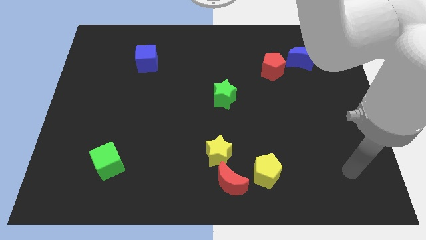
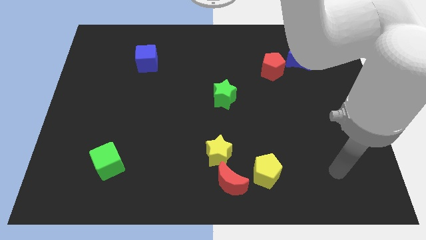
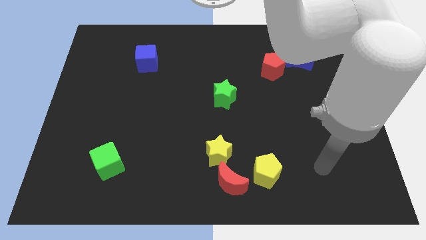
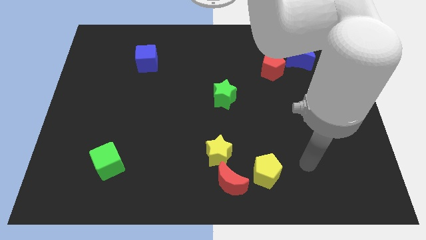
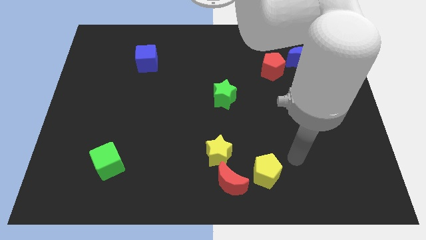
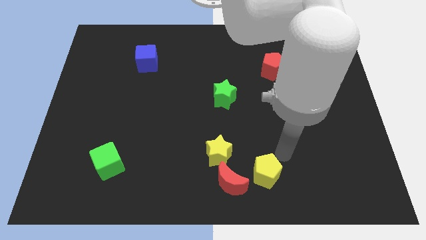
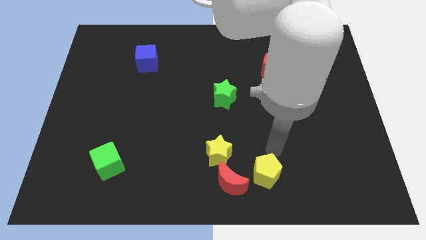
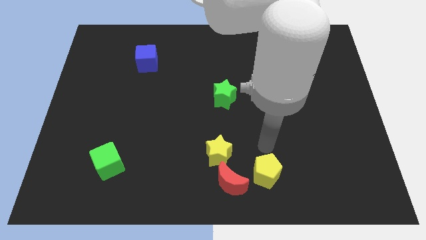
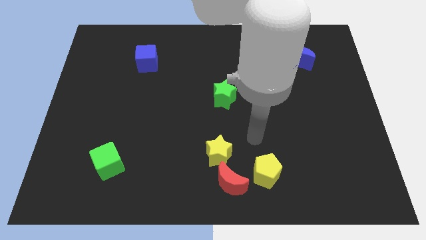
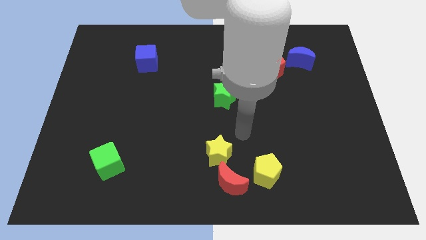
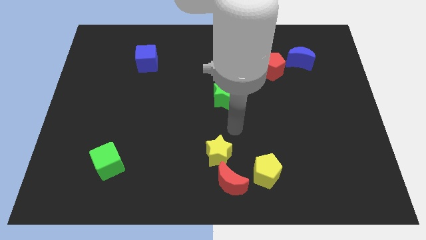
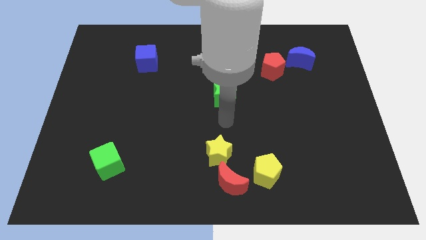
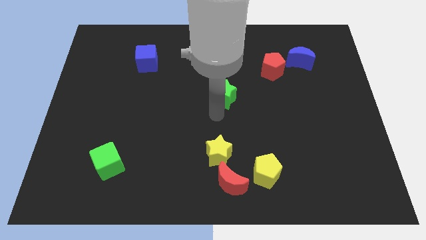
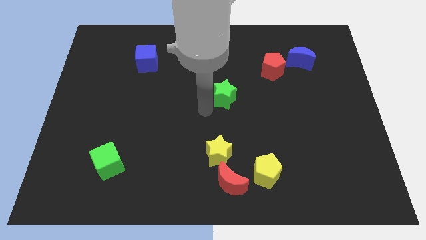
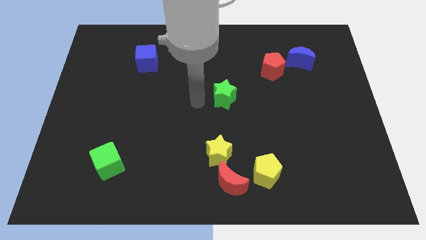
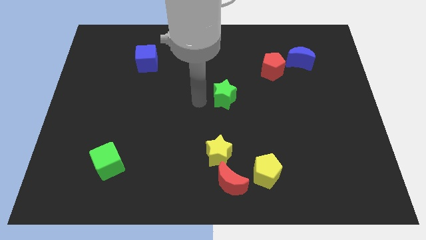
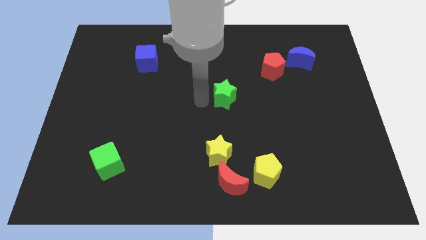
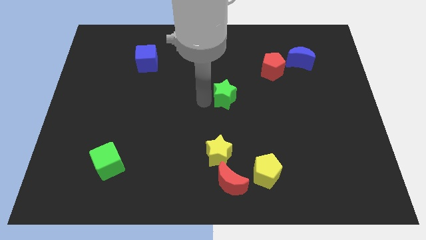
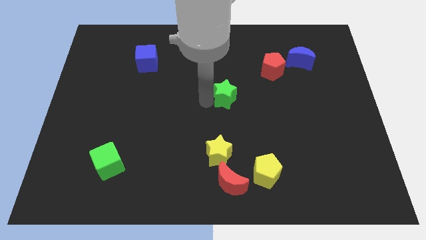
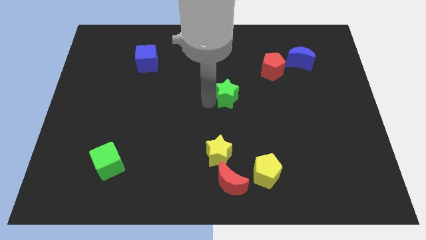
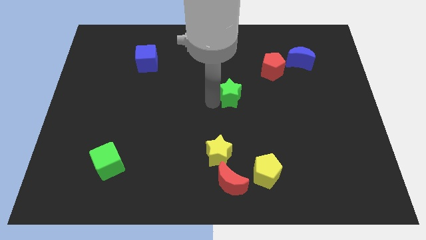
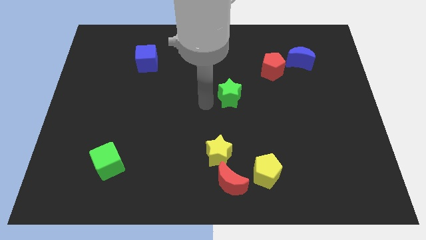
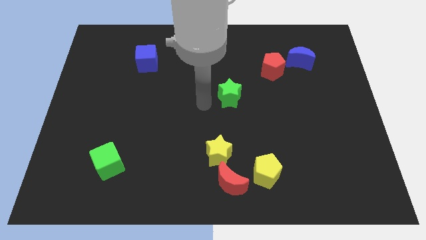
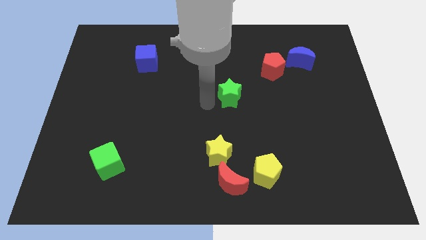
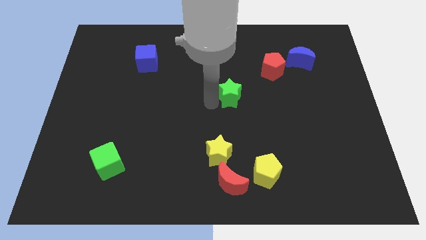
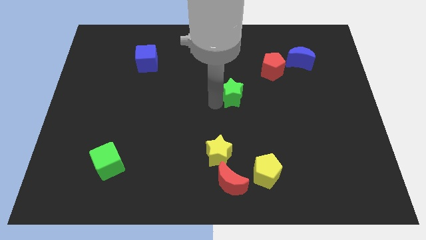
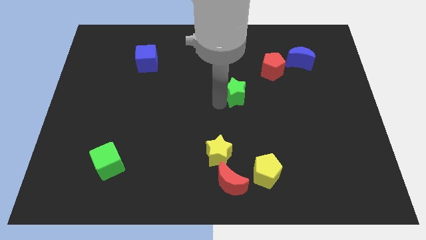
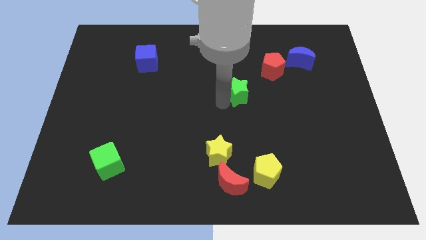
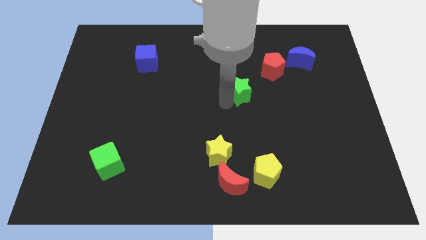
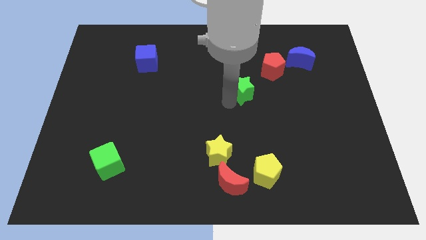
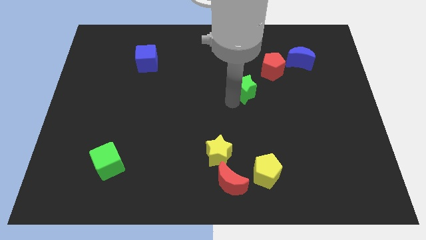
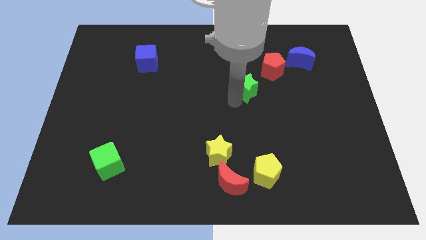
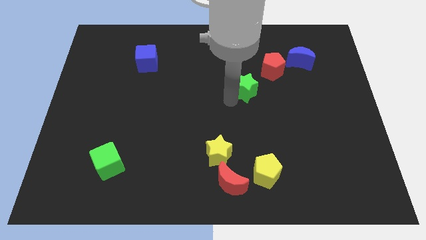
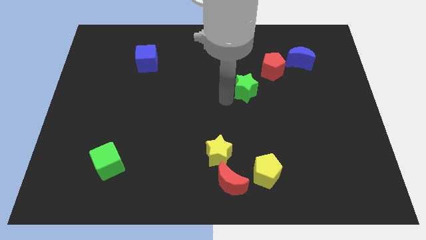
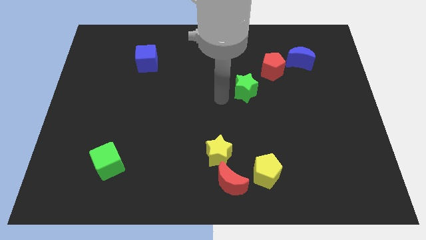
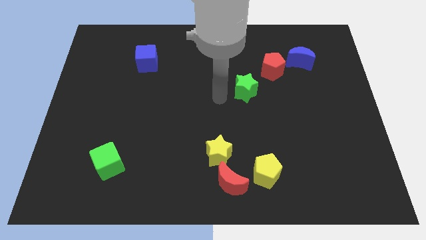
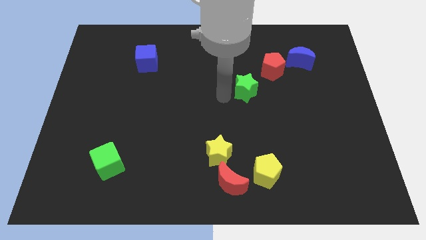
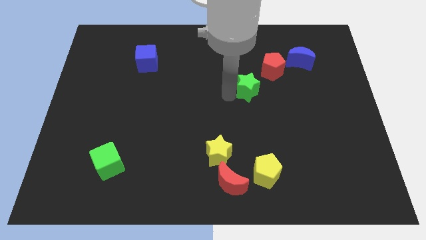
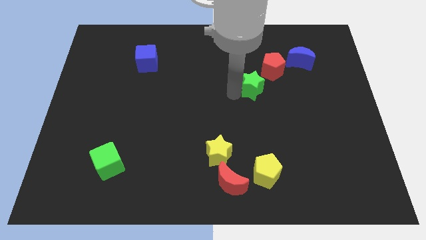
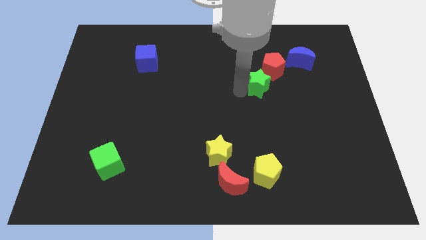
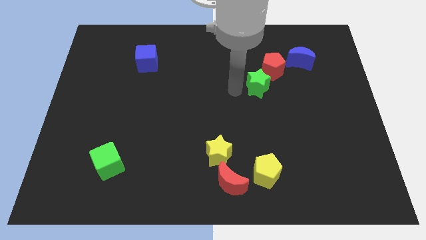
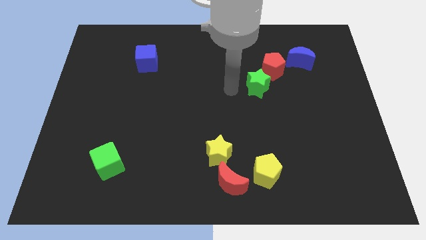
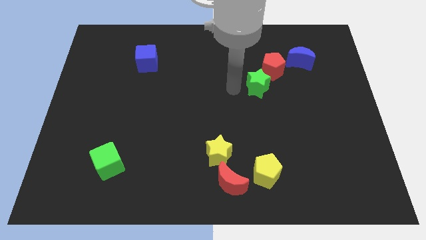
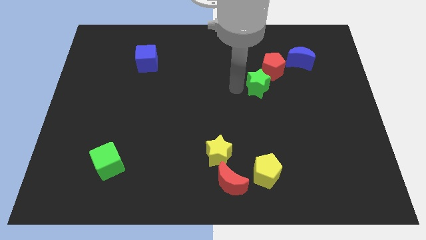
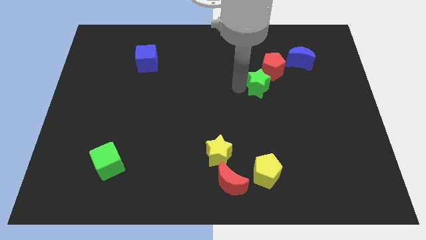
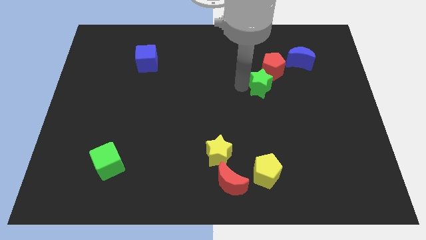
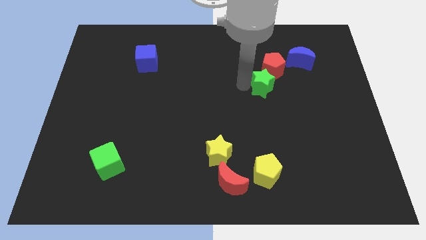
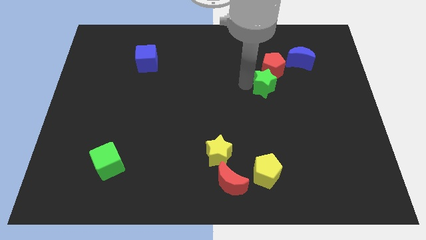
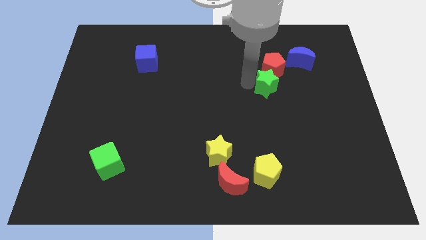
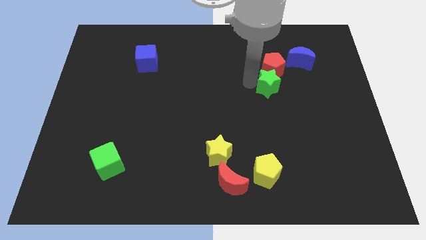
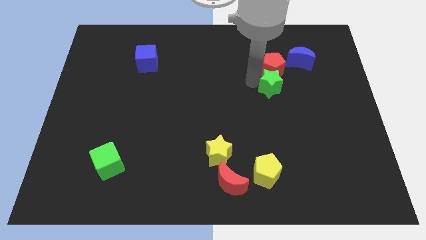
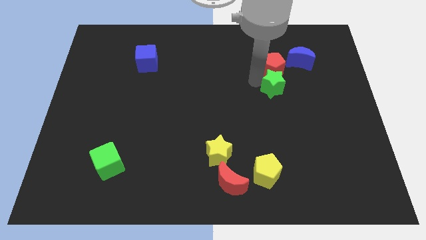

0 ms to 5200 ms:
put the green star to the bottom right side of the red pentagon

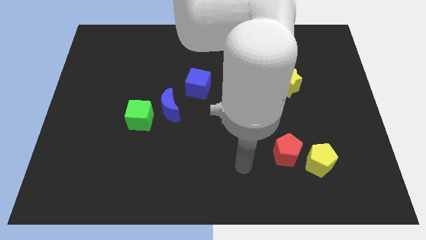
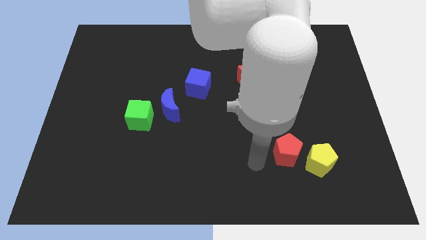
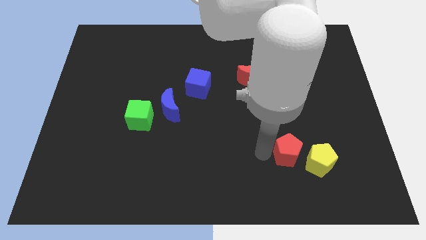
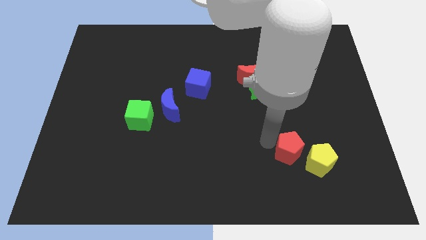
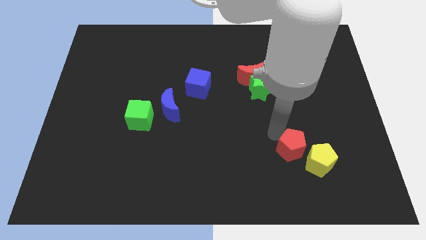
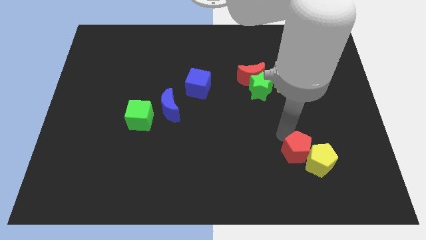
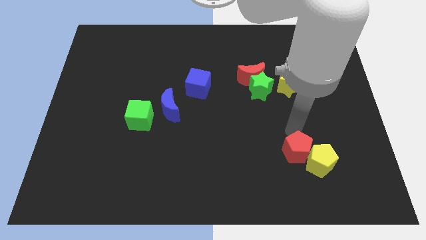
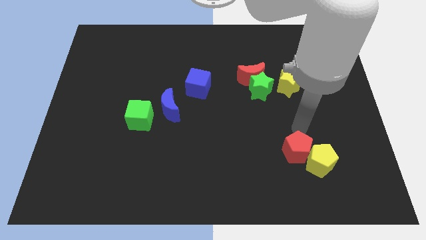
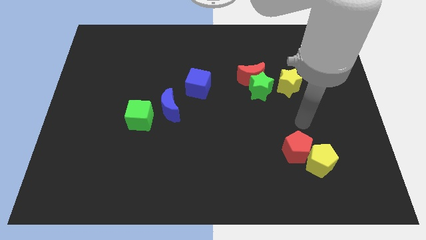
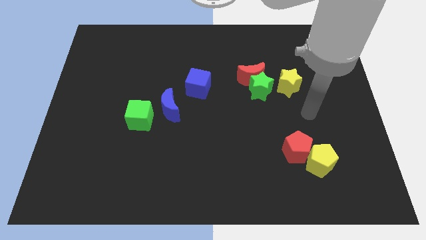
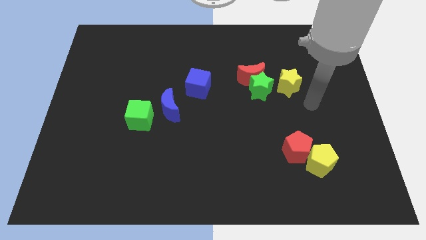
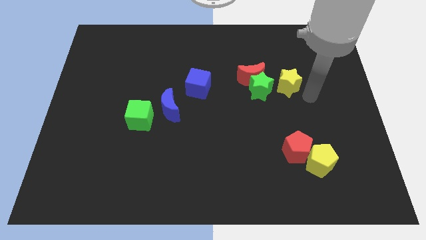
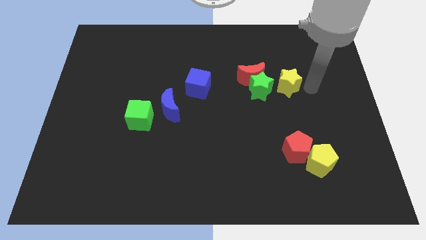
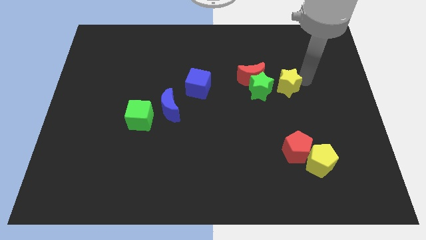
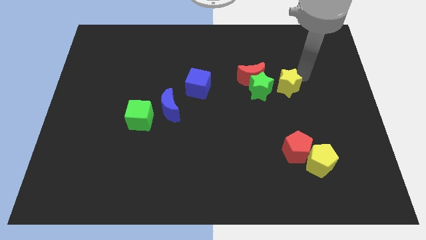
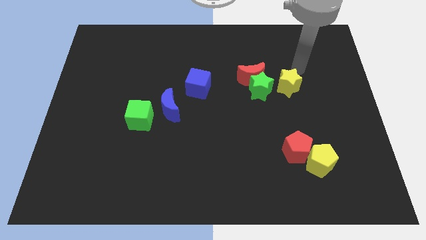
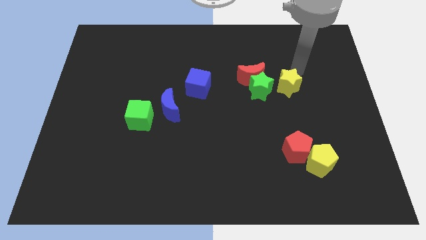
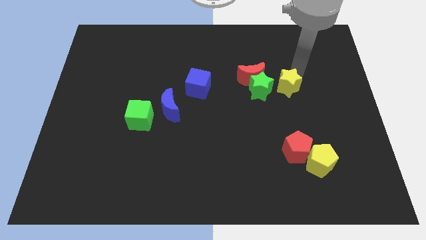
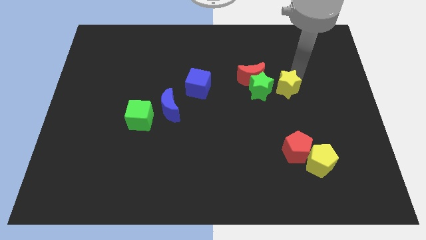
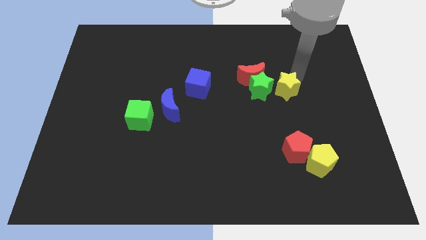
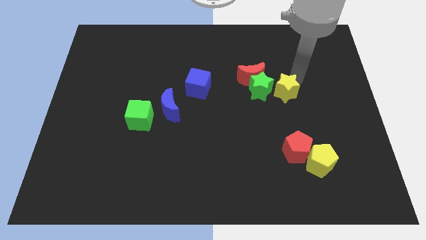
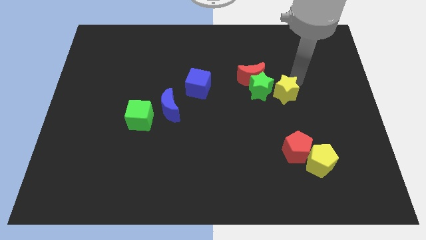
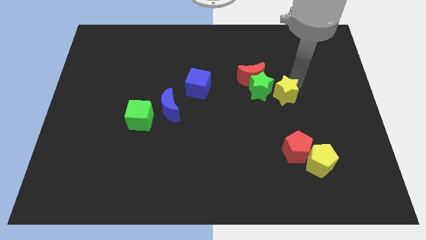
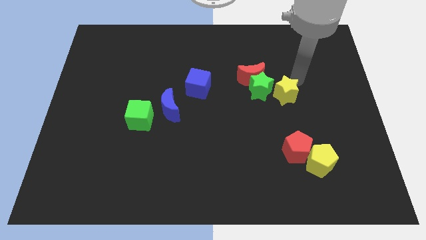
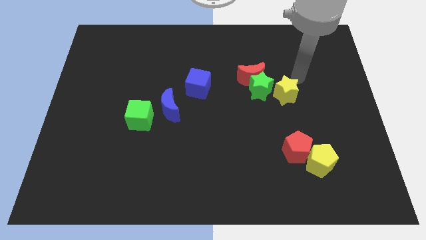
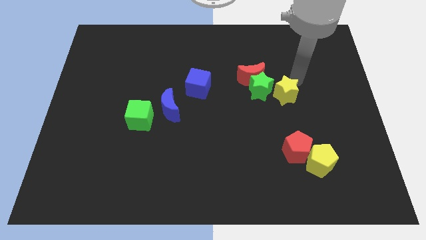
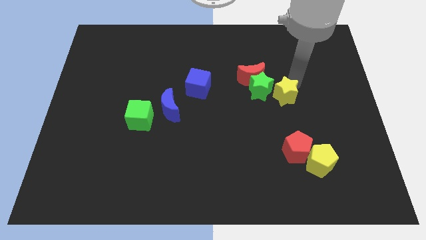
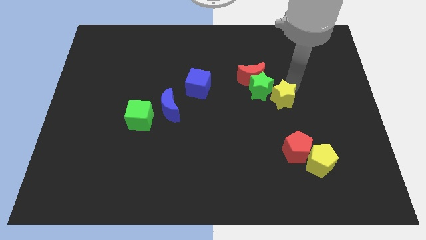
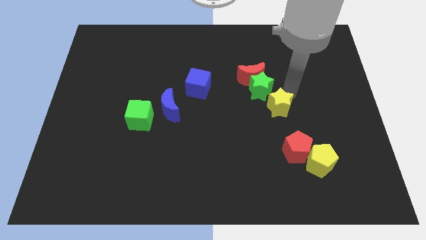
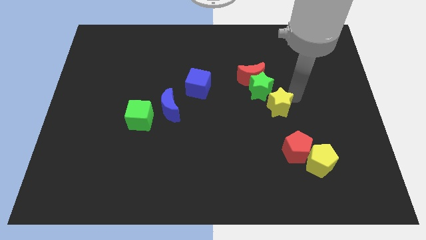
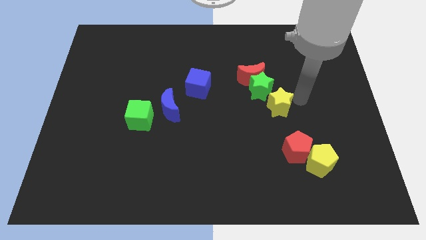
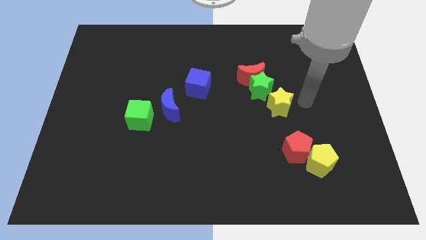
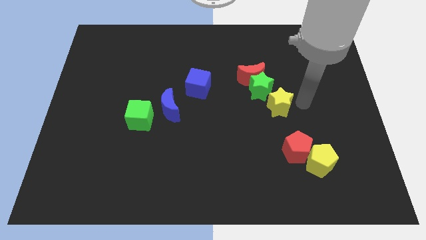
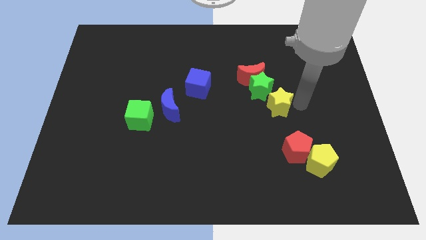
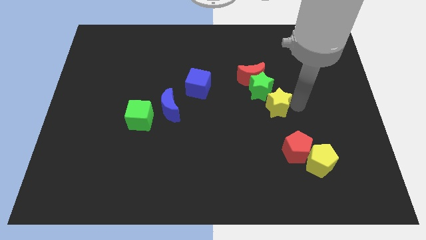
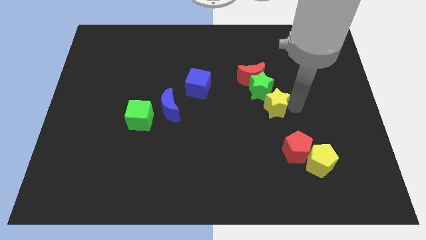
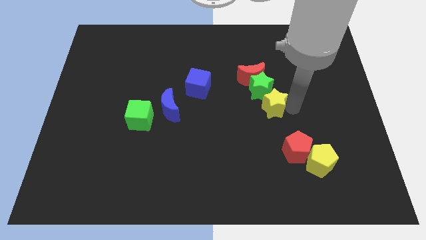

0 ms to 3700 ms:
slide the yellow star to the bottom of the red moon
